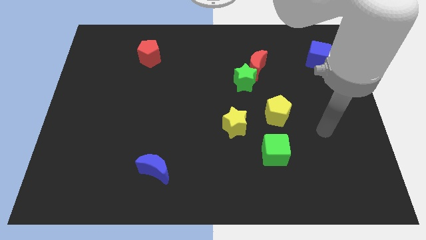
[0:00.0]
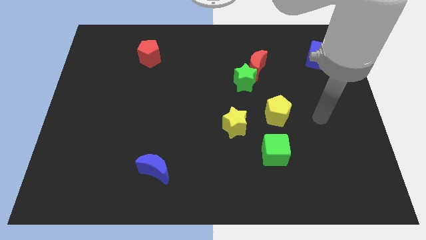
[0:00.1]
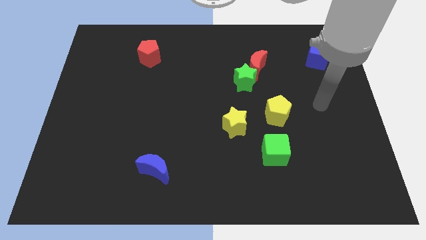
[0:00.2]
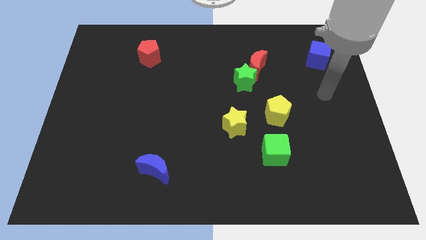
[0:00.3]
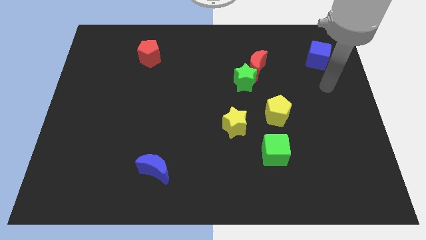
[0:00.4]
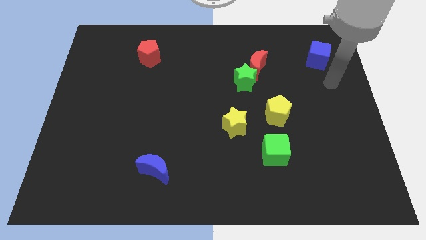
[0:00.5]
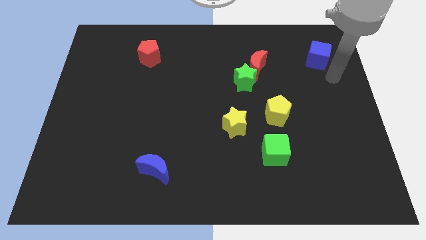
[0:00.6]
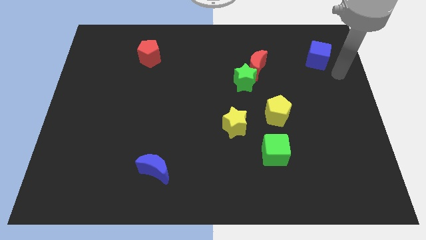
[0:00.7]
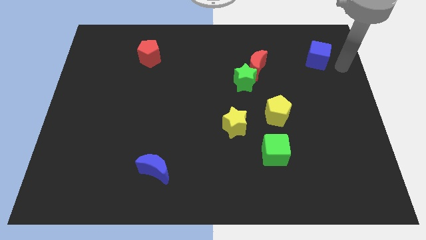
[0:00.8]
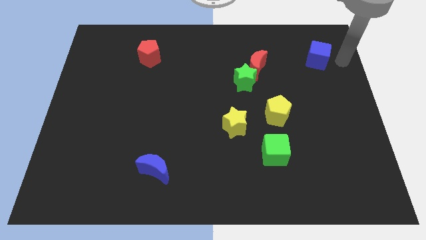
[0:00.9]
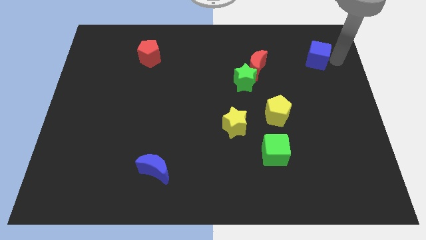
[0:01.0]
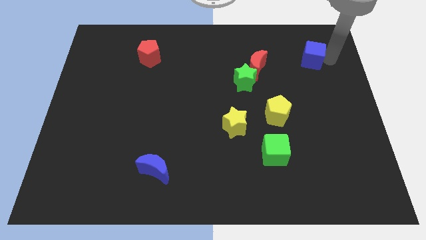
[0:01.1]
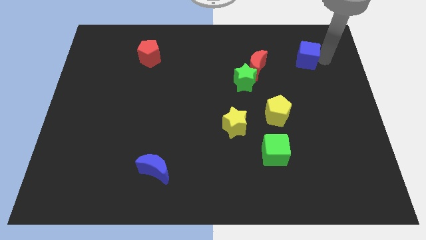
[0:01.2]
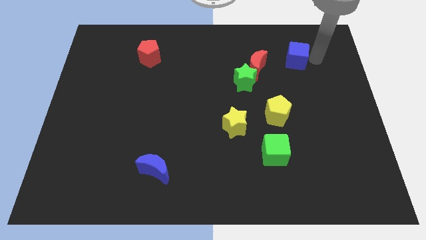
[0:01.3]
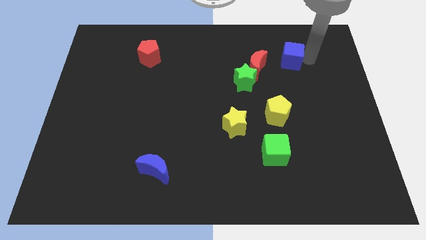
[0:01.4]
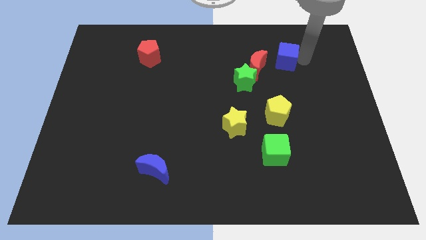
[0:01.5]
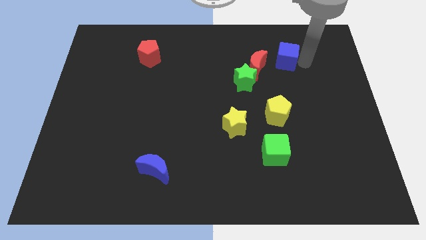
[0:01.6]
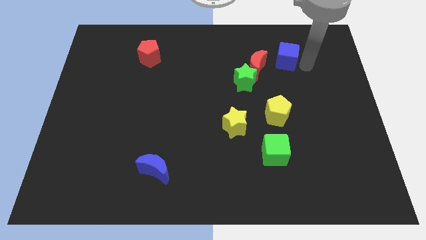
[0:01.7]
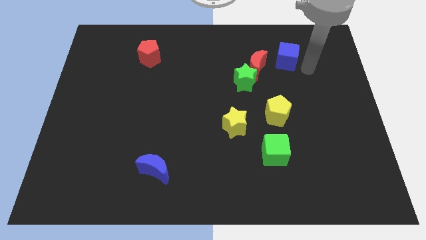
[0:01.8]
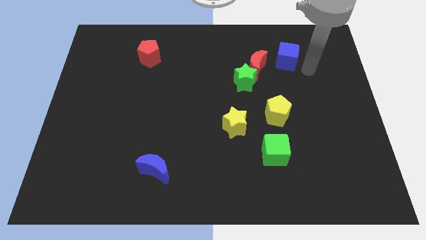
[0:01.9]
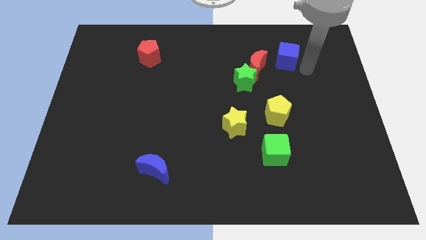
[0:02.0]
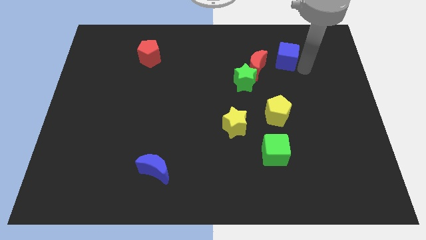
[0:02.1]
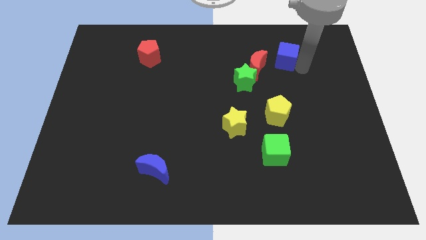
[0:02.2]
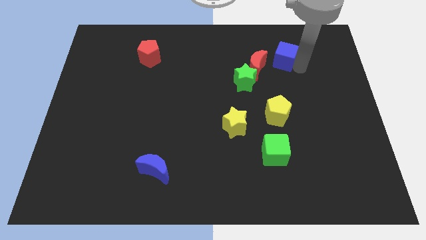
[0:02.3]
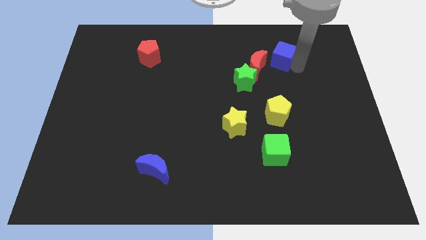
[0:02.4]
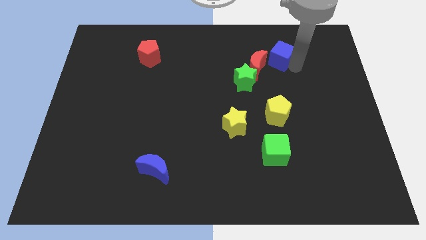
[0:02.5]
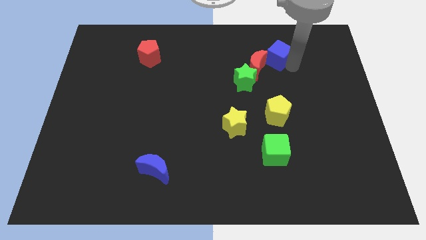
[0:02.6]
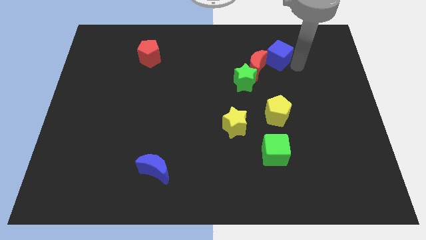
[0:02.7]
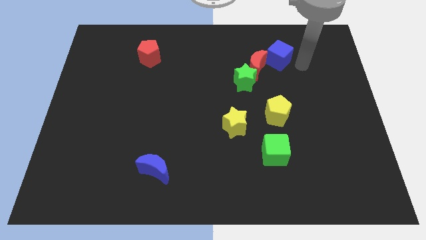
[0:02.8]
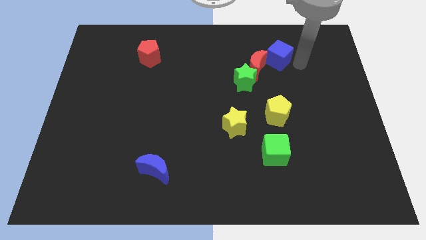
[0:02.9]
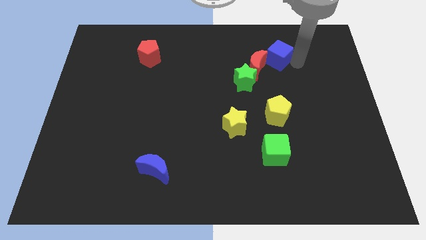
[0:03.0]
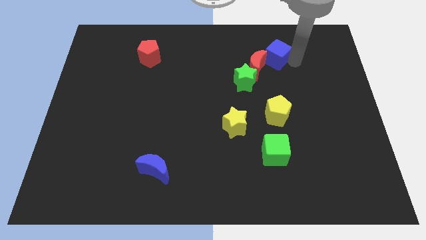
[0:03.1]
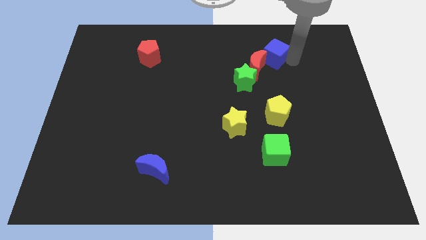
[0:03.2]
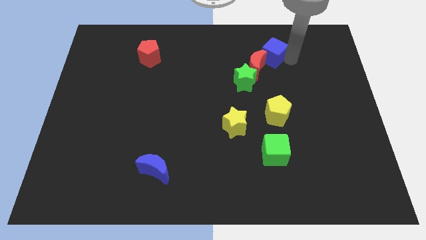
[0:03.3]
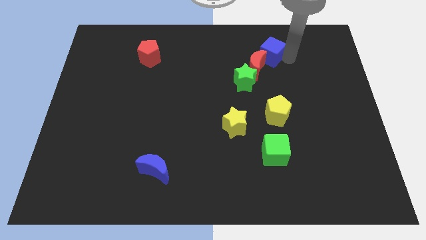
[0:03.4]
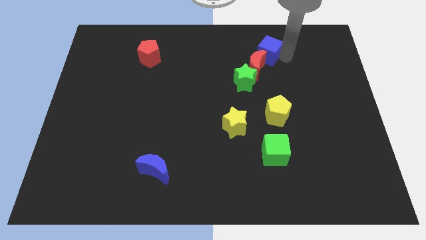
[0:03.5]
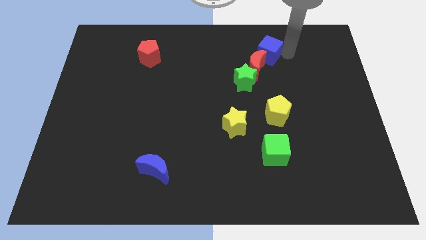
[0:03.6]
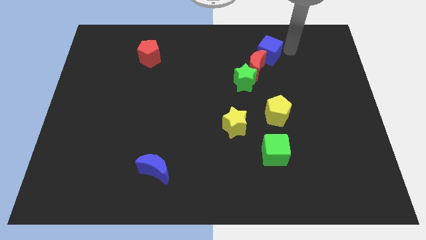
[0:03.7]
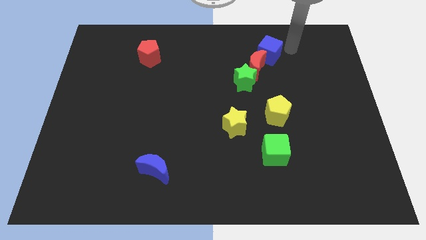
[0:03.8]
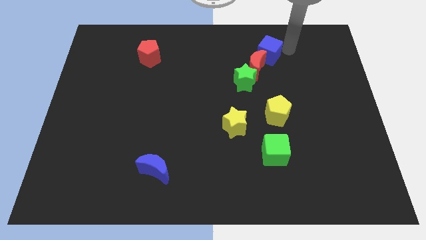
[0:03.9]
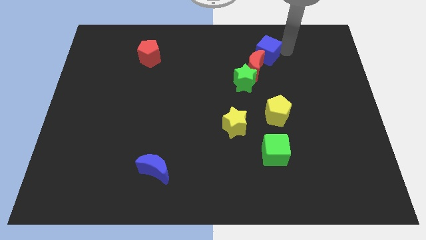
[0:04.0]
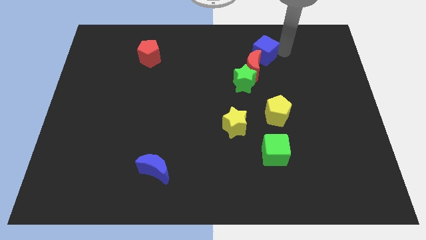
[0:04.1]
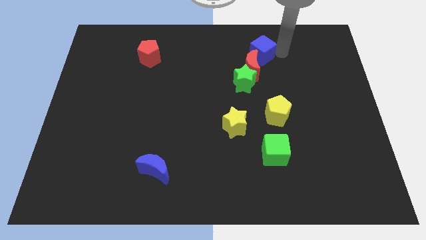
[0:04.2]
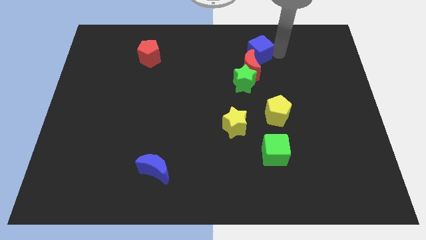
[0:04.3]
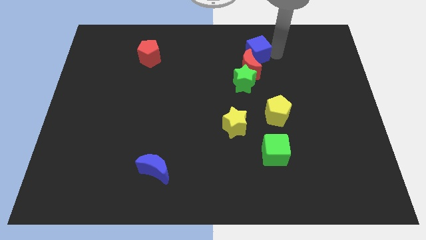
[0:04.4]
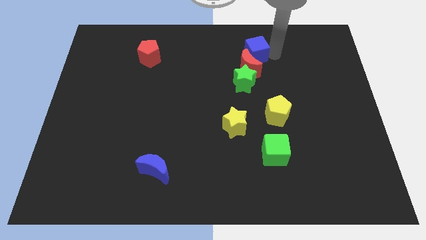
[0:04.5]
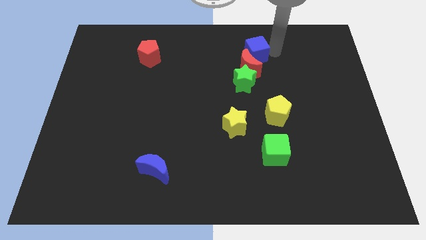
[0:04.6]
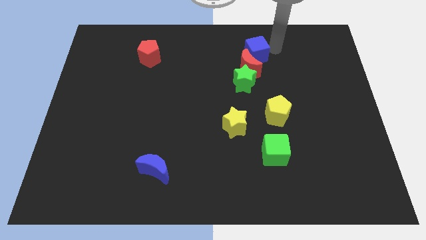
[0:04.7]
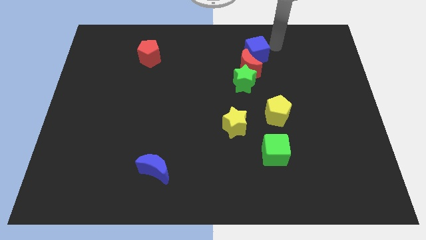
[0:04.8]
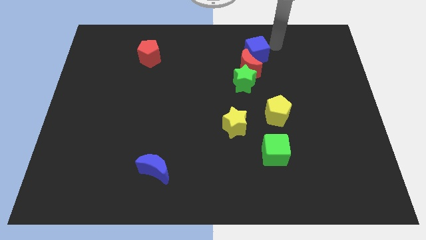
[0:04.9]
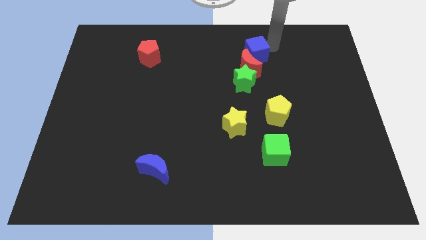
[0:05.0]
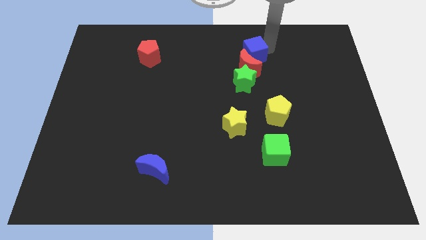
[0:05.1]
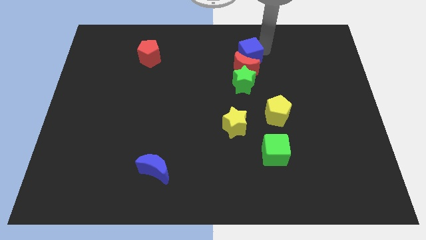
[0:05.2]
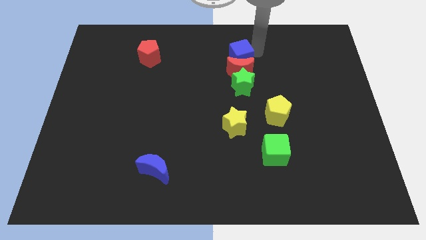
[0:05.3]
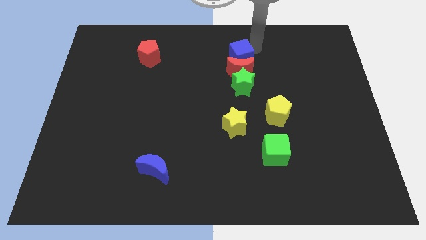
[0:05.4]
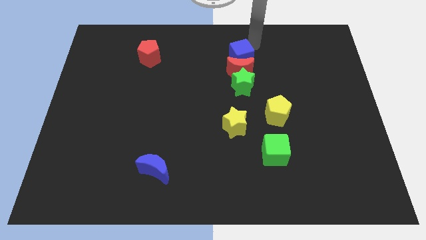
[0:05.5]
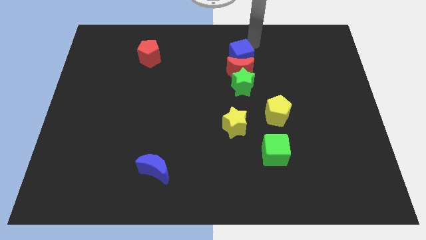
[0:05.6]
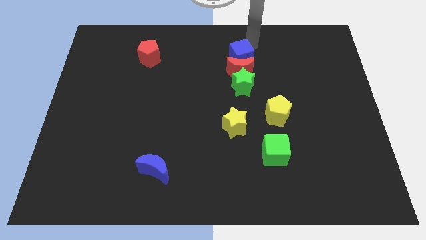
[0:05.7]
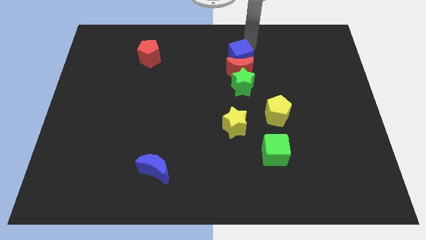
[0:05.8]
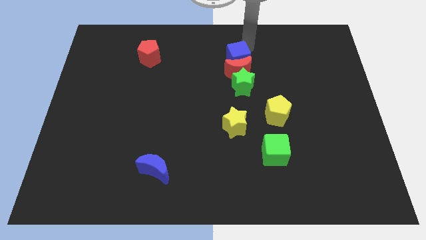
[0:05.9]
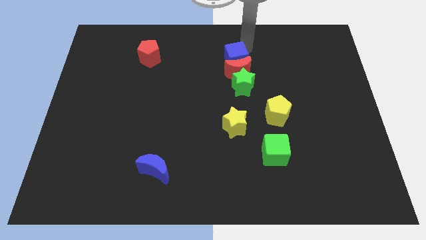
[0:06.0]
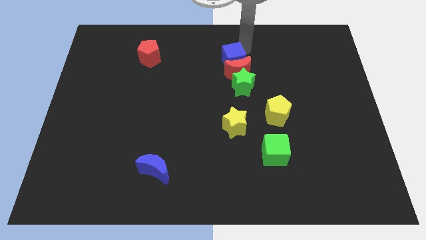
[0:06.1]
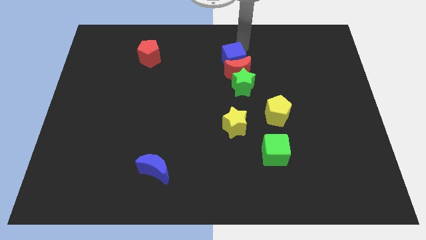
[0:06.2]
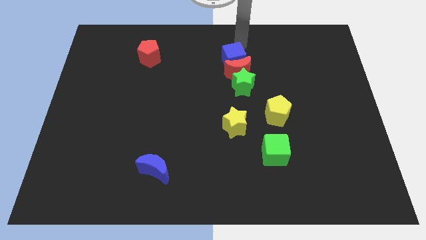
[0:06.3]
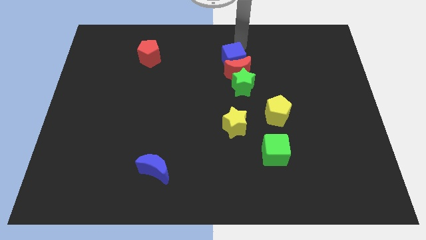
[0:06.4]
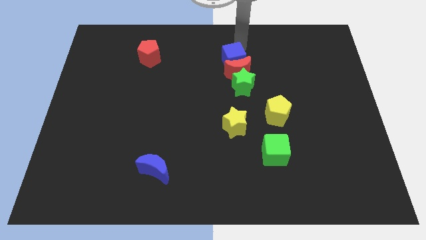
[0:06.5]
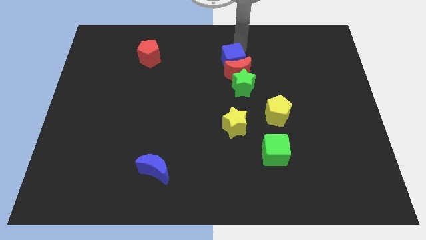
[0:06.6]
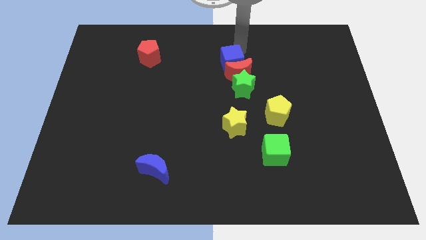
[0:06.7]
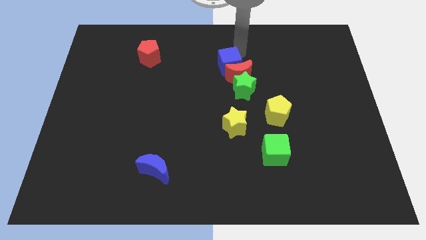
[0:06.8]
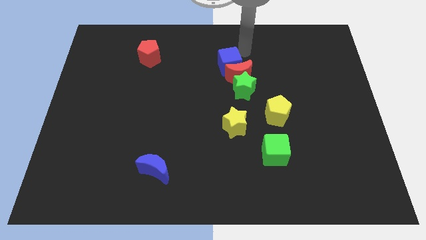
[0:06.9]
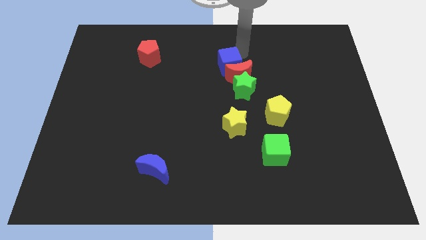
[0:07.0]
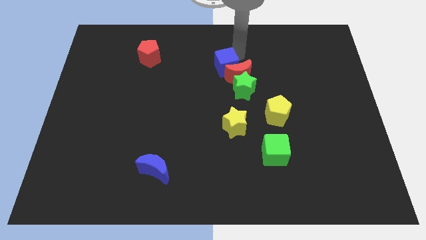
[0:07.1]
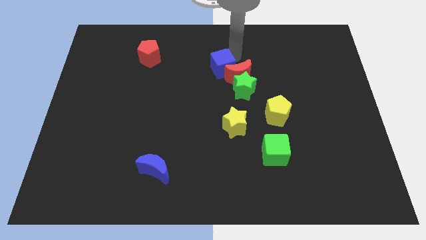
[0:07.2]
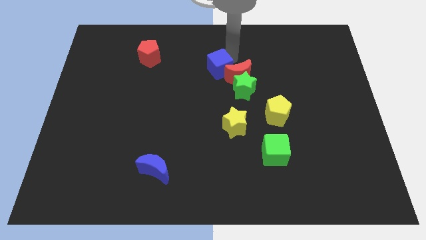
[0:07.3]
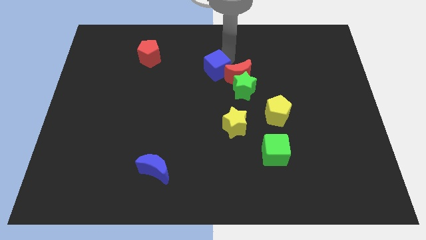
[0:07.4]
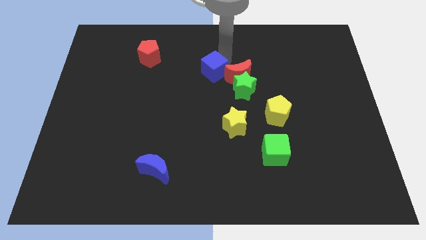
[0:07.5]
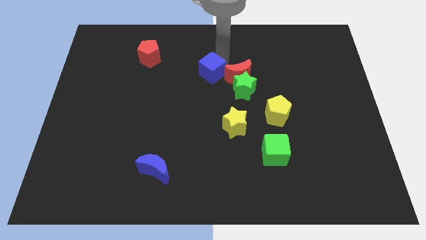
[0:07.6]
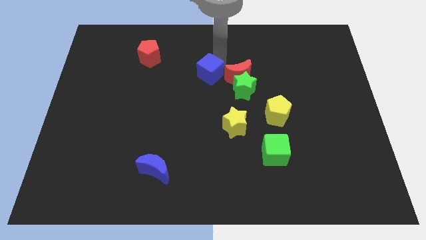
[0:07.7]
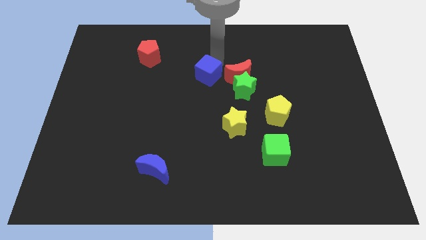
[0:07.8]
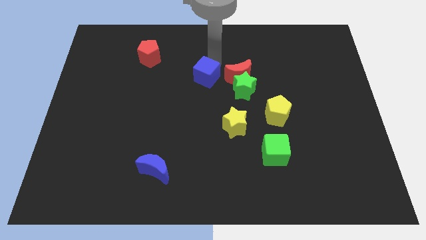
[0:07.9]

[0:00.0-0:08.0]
slide the blue cube left of the green star
